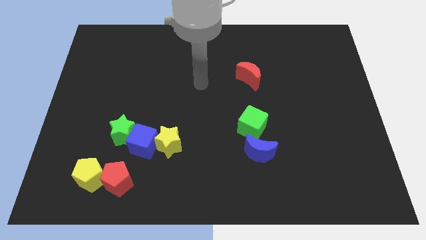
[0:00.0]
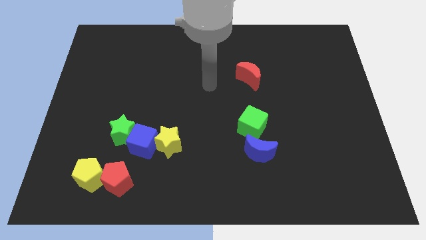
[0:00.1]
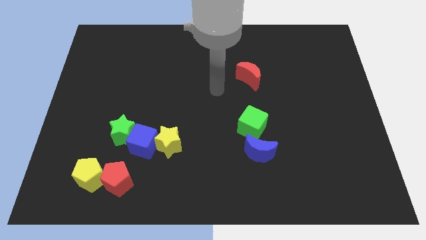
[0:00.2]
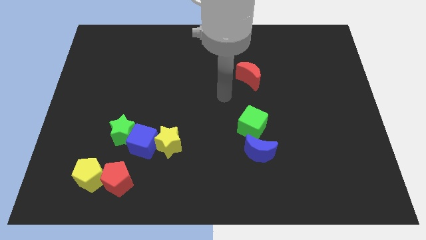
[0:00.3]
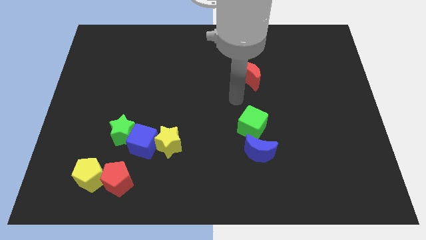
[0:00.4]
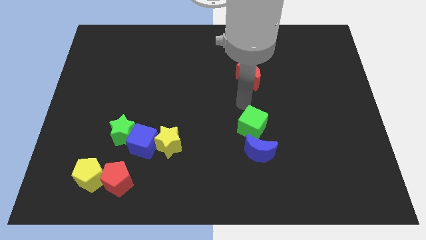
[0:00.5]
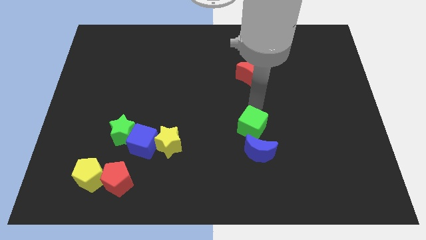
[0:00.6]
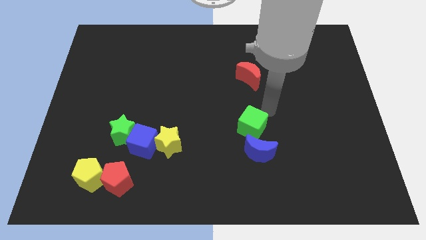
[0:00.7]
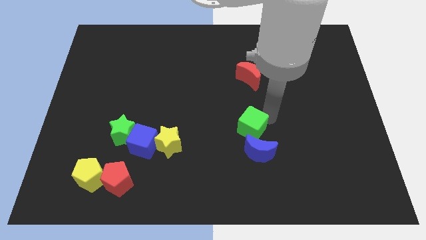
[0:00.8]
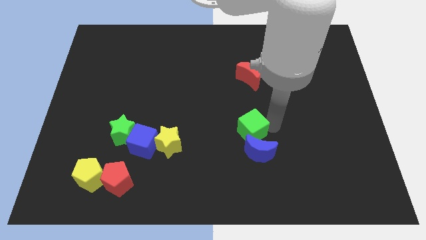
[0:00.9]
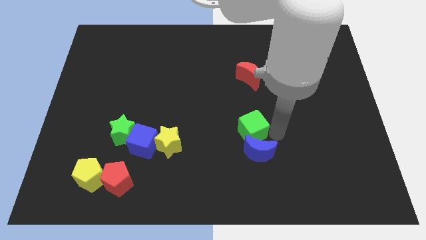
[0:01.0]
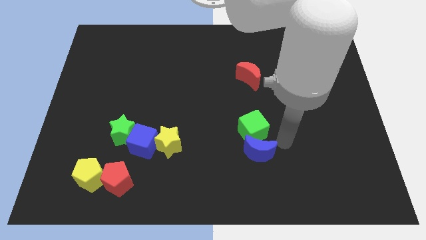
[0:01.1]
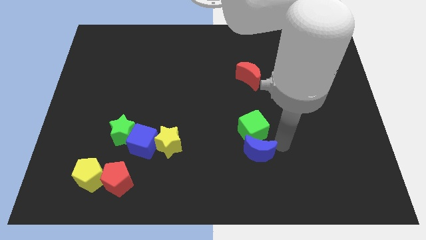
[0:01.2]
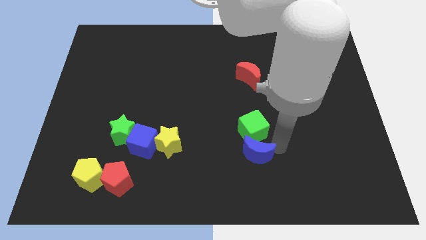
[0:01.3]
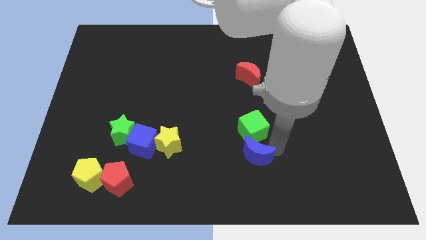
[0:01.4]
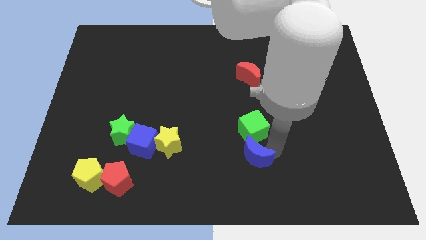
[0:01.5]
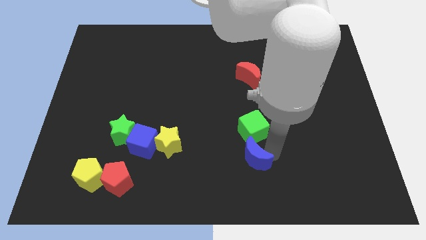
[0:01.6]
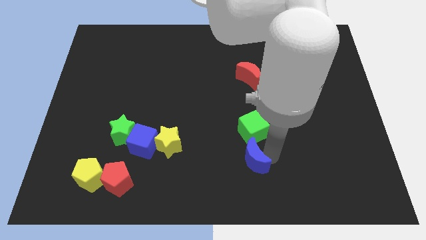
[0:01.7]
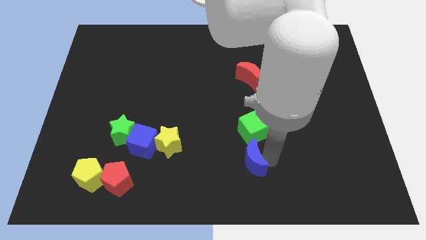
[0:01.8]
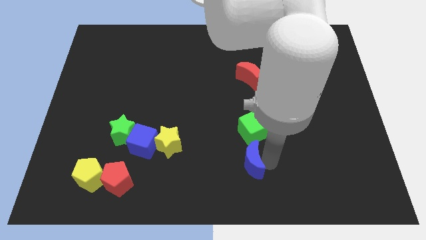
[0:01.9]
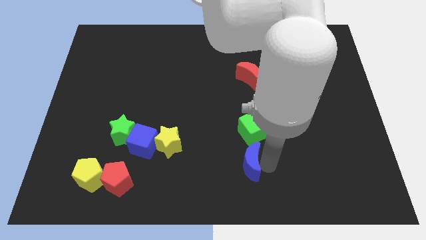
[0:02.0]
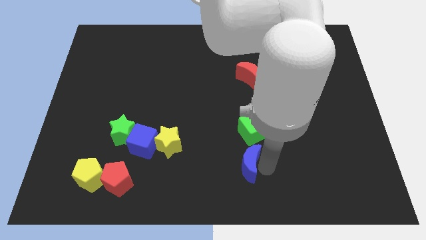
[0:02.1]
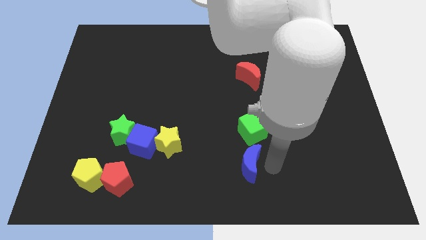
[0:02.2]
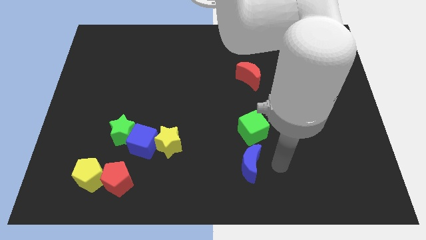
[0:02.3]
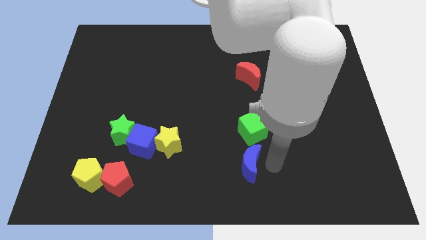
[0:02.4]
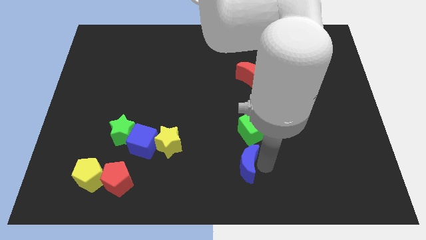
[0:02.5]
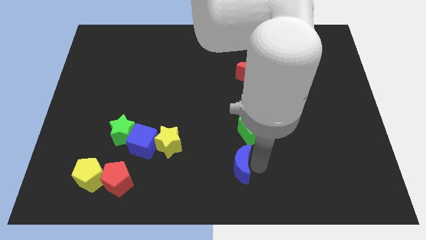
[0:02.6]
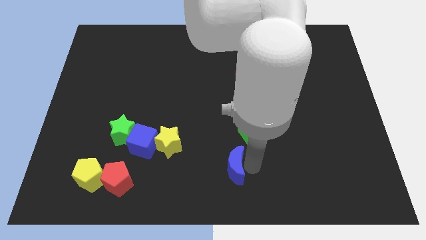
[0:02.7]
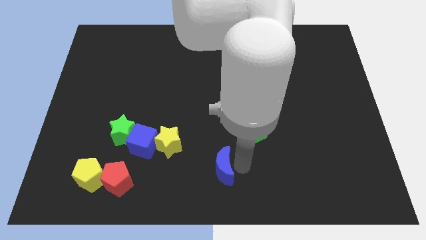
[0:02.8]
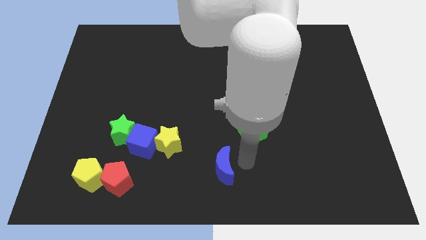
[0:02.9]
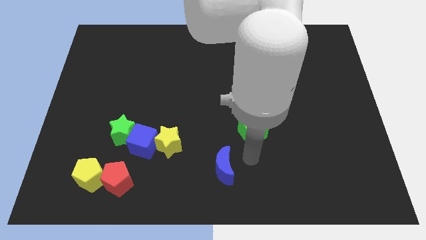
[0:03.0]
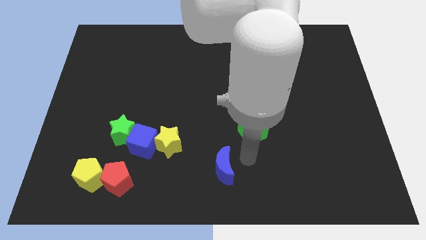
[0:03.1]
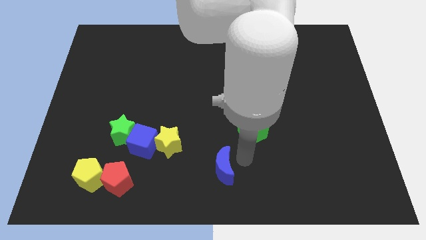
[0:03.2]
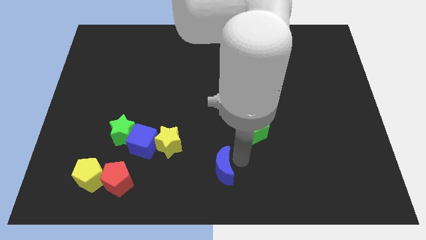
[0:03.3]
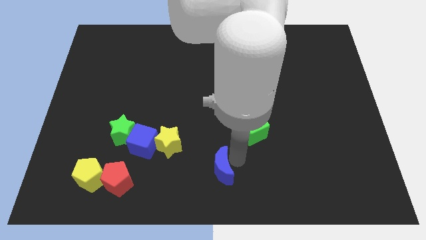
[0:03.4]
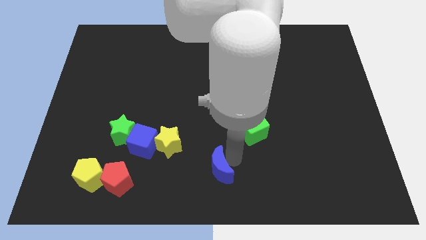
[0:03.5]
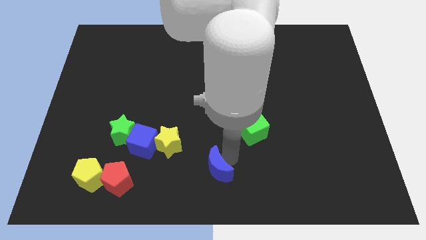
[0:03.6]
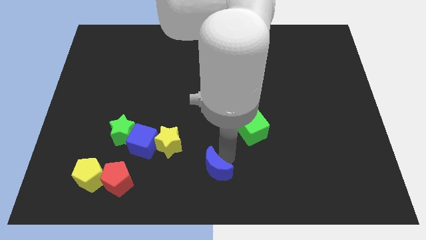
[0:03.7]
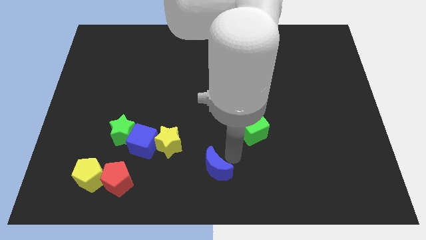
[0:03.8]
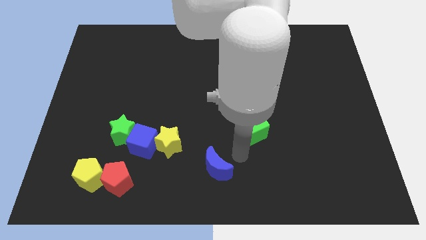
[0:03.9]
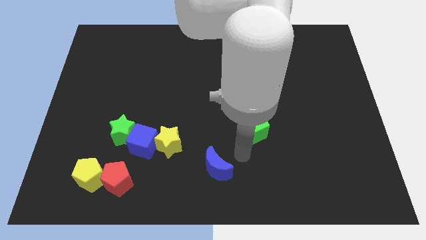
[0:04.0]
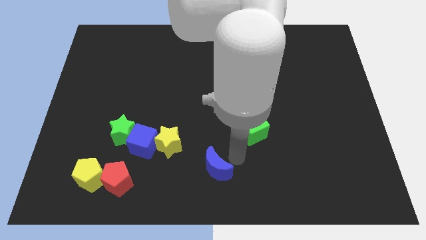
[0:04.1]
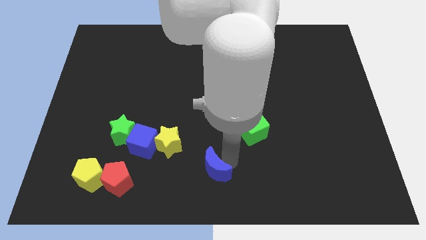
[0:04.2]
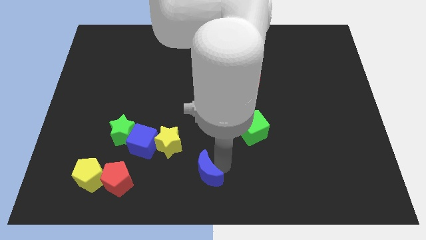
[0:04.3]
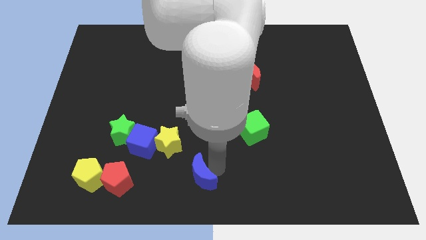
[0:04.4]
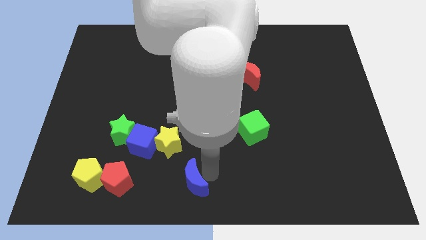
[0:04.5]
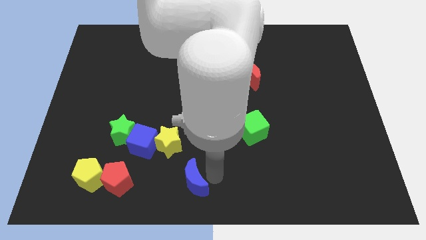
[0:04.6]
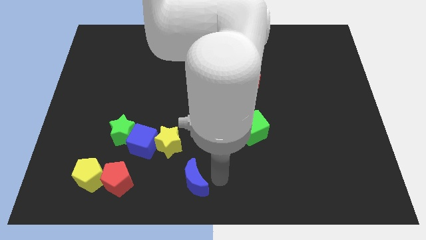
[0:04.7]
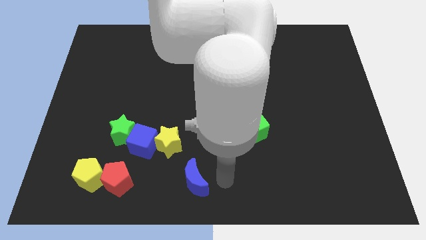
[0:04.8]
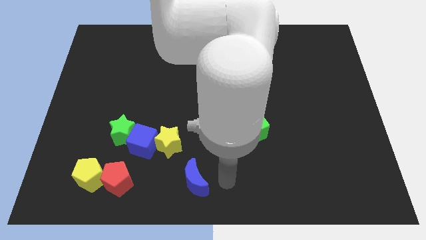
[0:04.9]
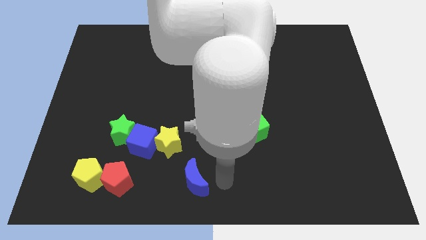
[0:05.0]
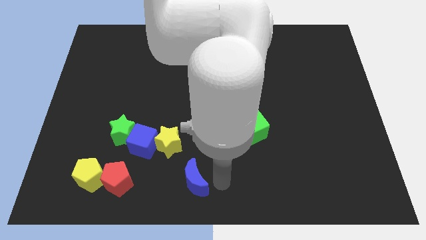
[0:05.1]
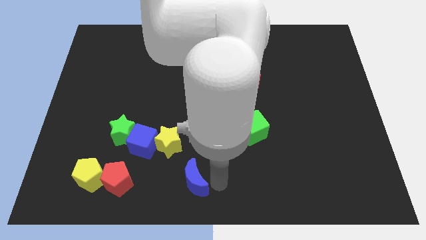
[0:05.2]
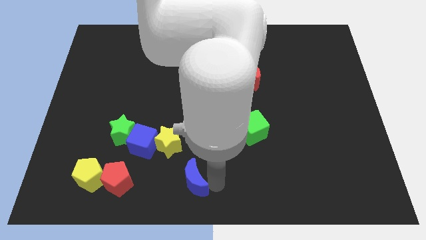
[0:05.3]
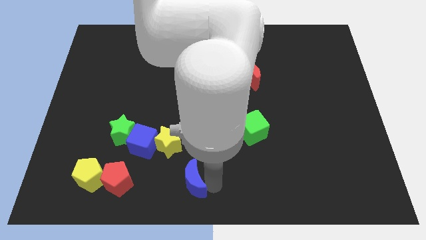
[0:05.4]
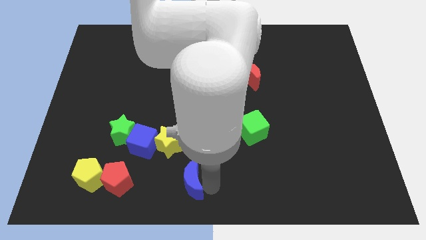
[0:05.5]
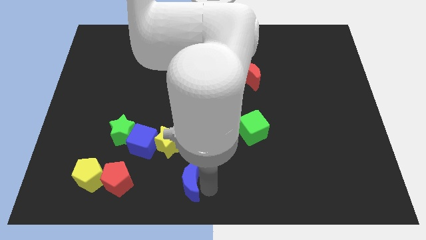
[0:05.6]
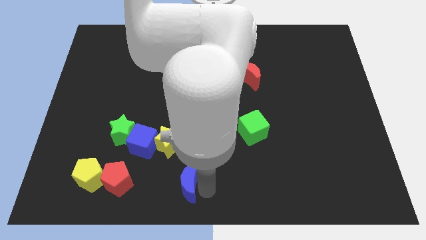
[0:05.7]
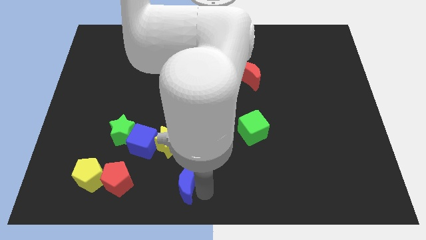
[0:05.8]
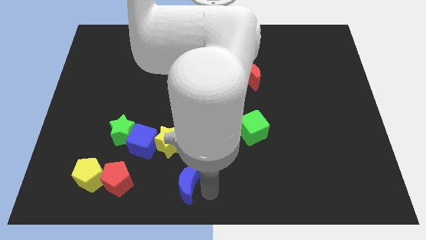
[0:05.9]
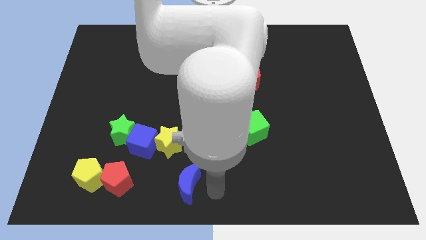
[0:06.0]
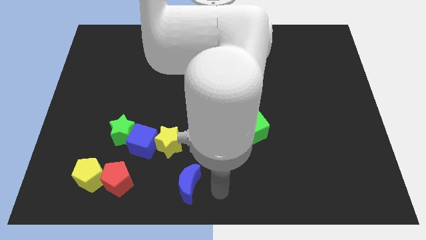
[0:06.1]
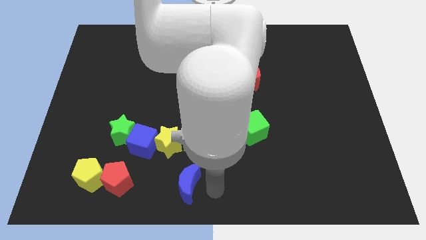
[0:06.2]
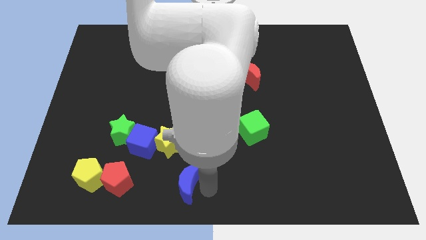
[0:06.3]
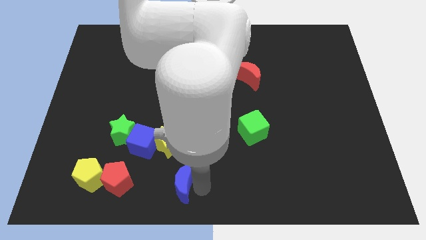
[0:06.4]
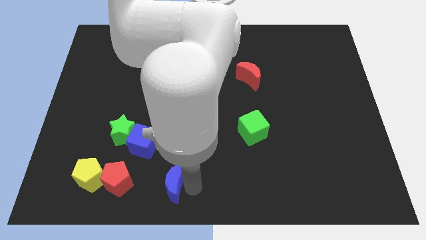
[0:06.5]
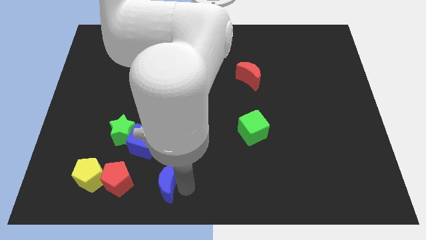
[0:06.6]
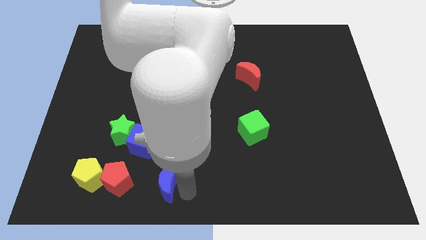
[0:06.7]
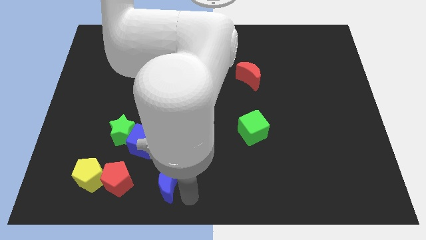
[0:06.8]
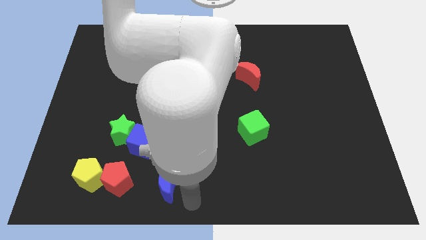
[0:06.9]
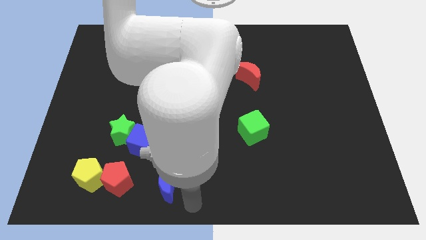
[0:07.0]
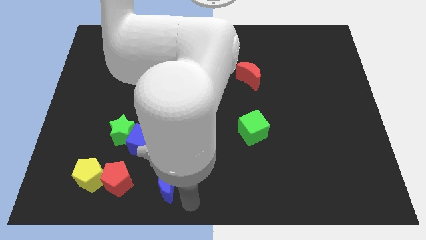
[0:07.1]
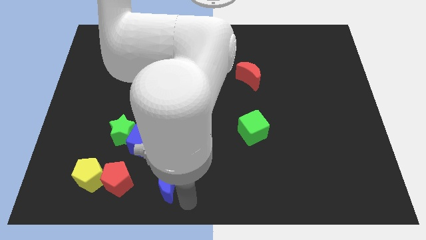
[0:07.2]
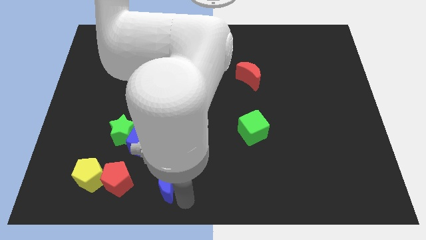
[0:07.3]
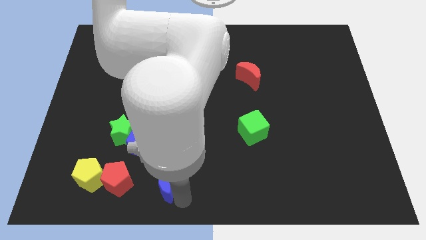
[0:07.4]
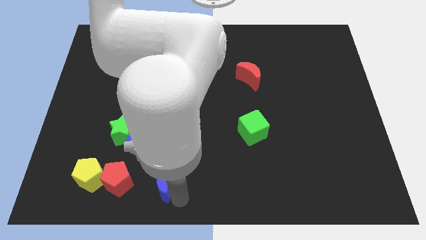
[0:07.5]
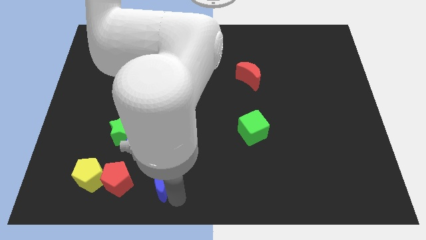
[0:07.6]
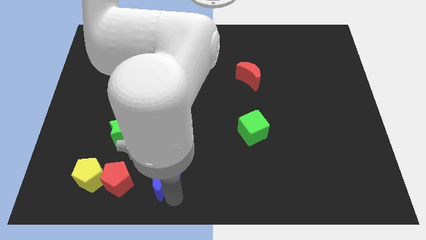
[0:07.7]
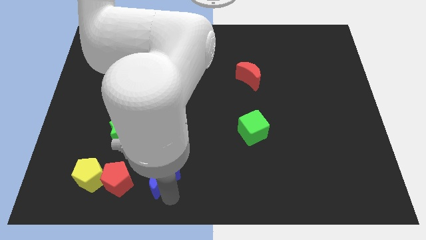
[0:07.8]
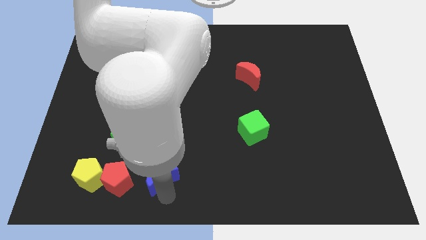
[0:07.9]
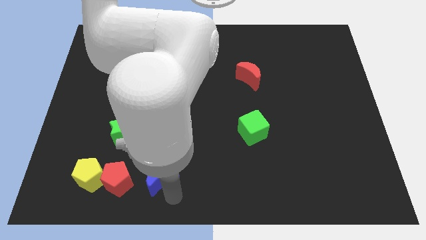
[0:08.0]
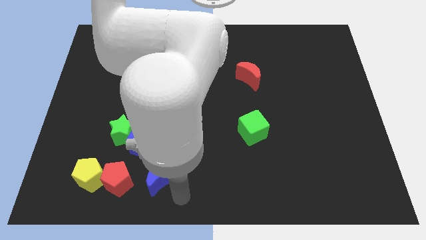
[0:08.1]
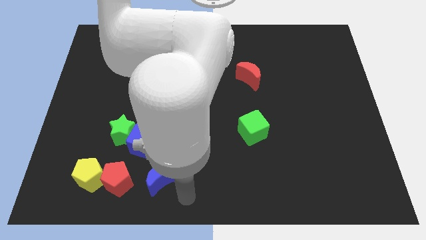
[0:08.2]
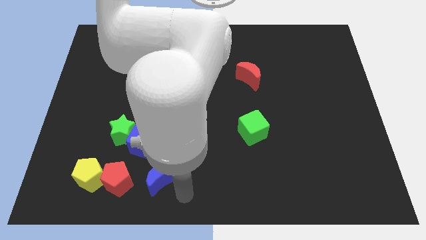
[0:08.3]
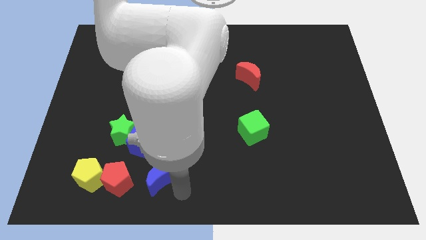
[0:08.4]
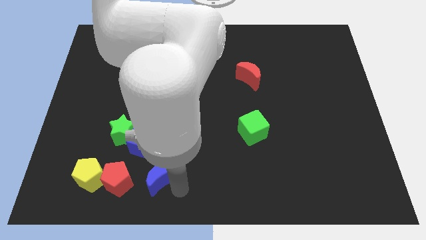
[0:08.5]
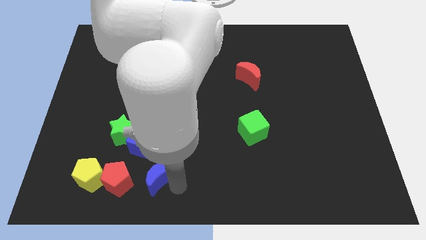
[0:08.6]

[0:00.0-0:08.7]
put the blue moon diagonally down and to the left of the yellow star
